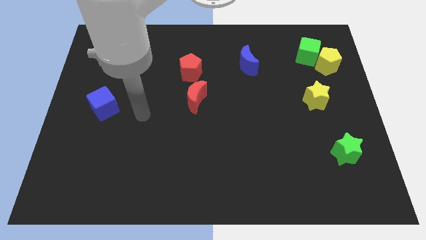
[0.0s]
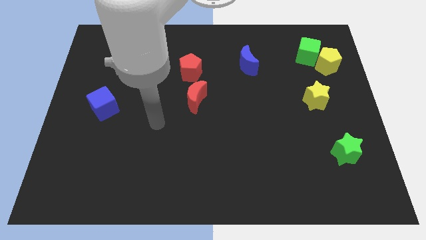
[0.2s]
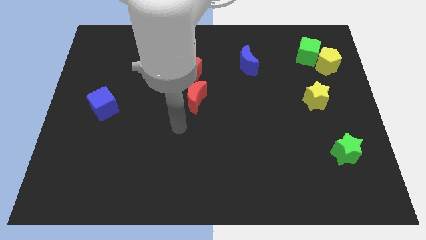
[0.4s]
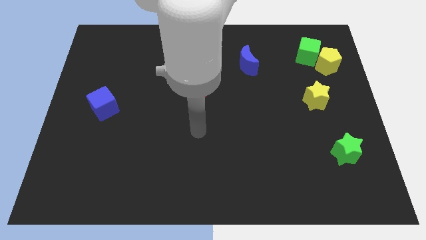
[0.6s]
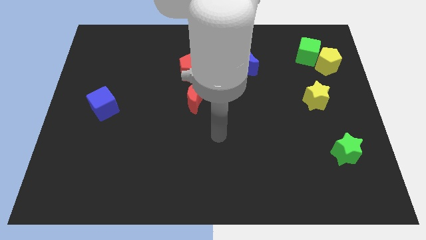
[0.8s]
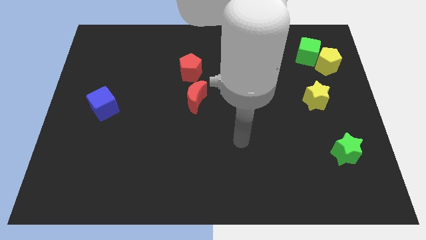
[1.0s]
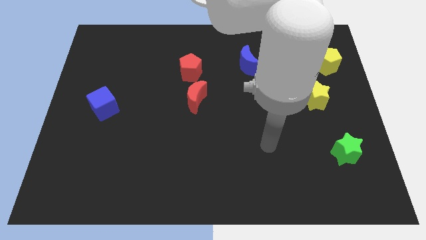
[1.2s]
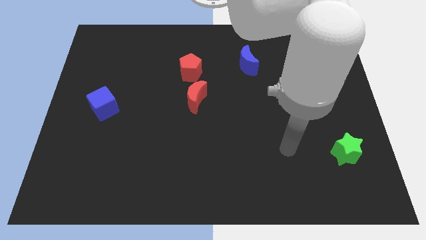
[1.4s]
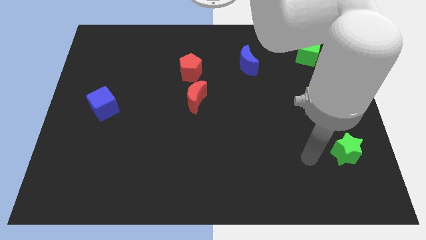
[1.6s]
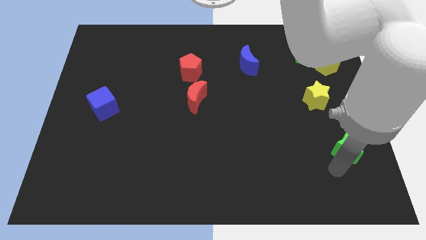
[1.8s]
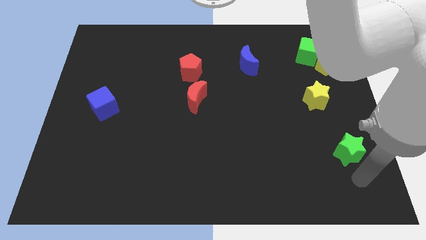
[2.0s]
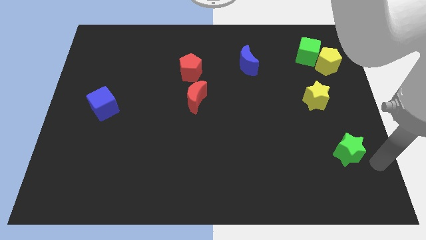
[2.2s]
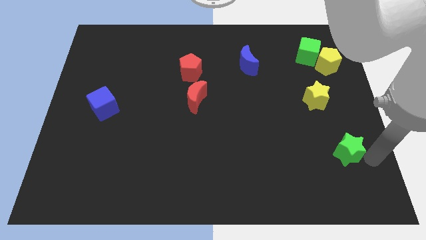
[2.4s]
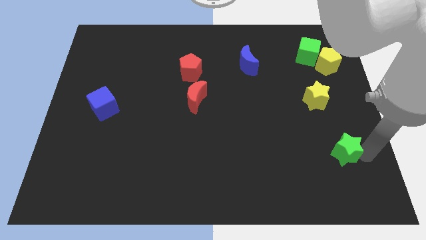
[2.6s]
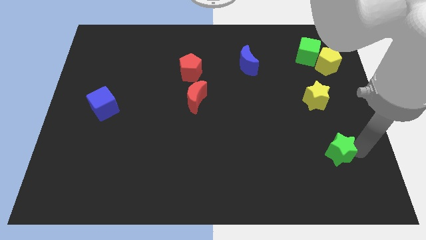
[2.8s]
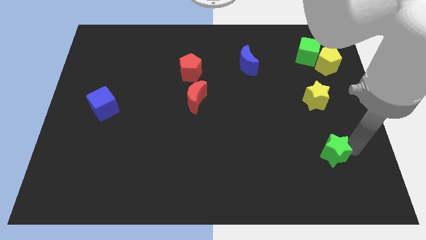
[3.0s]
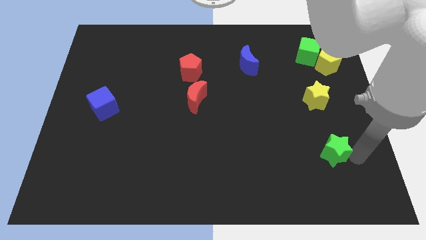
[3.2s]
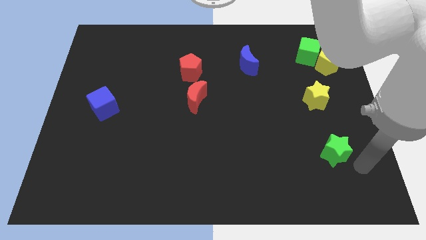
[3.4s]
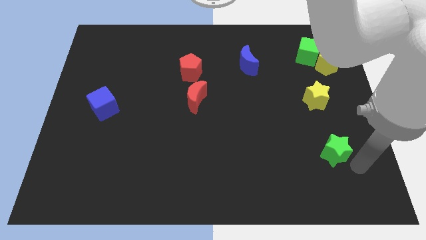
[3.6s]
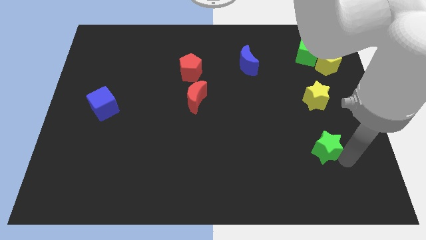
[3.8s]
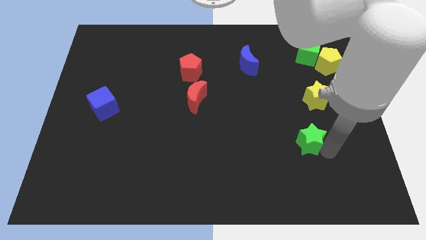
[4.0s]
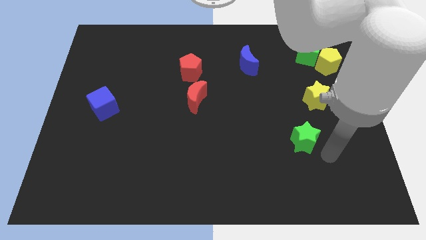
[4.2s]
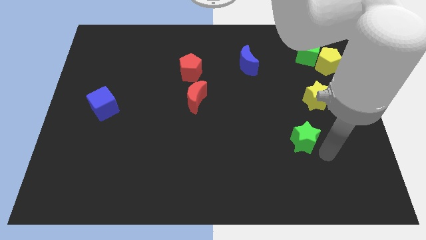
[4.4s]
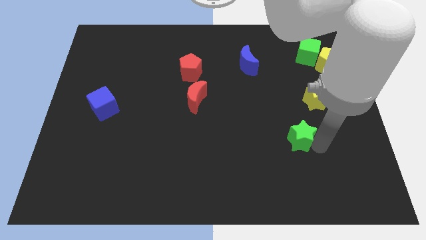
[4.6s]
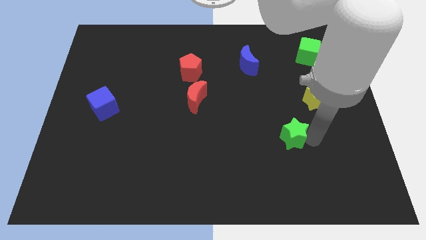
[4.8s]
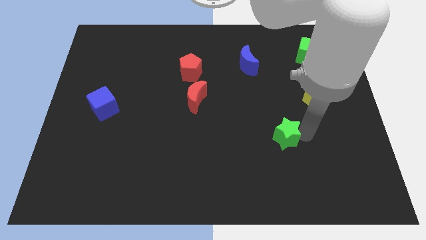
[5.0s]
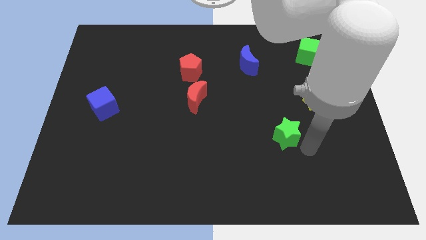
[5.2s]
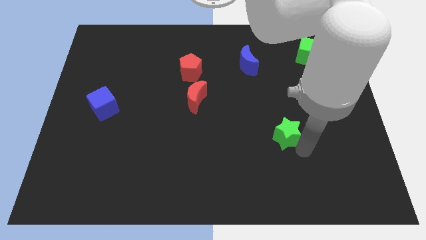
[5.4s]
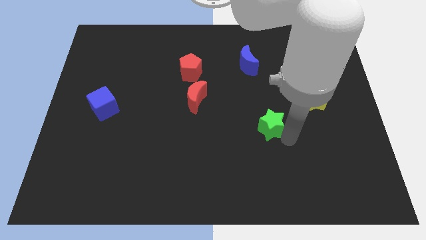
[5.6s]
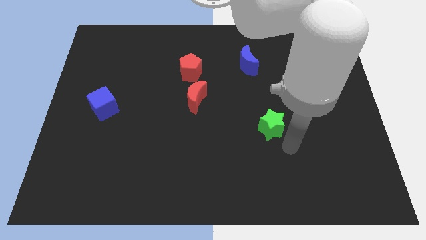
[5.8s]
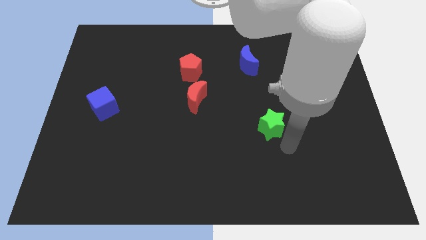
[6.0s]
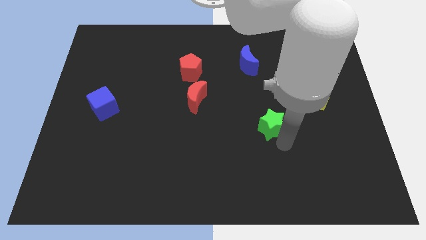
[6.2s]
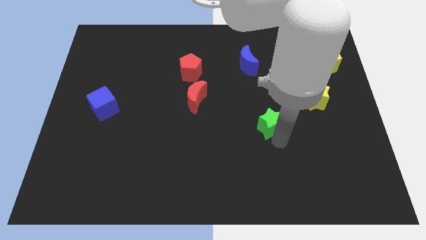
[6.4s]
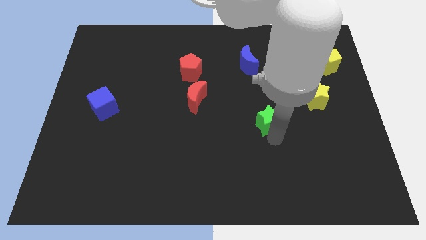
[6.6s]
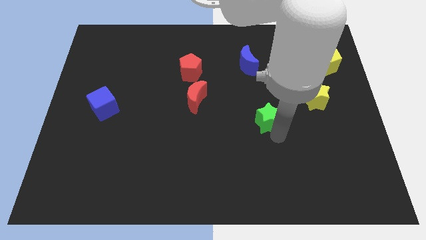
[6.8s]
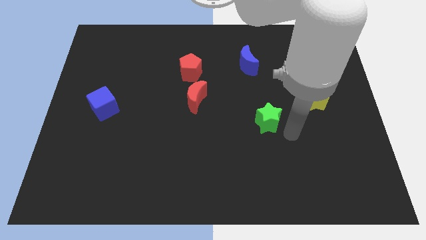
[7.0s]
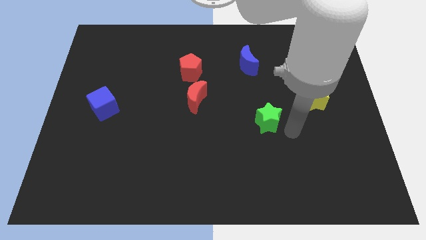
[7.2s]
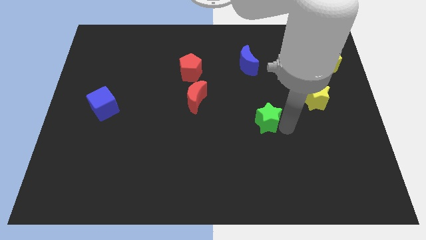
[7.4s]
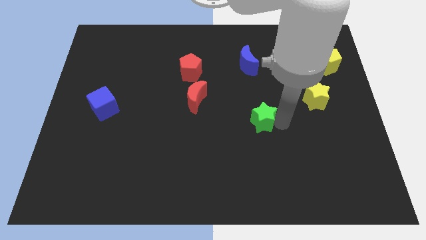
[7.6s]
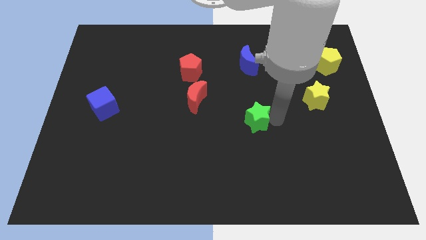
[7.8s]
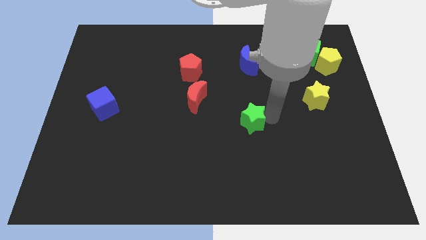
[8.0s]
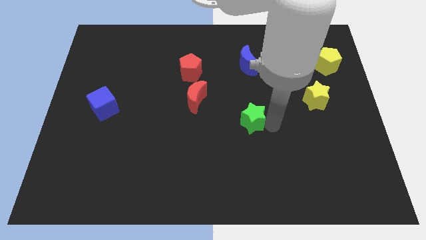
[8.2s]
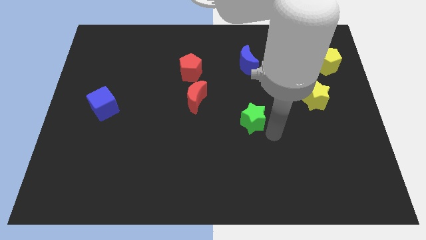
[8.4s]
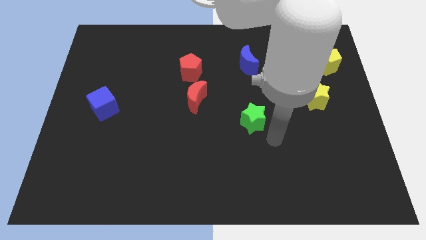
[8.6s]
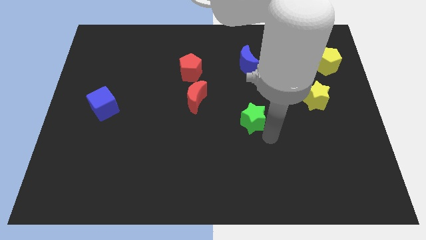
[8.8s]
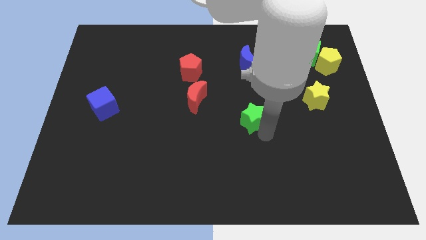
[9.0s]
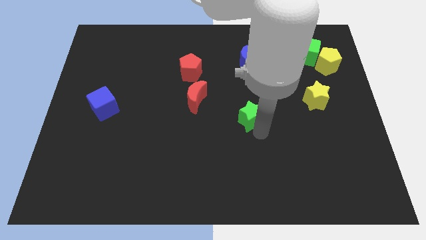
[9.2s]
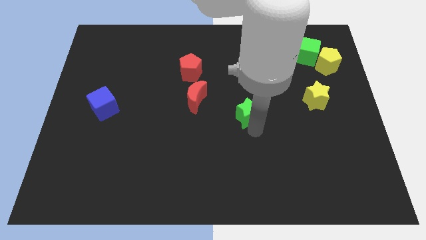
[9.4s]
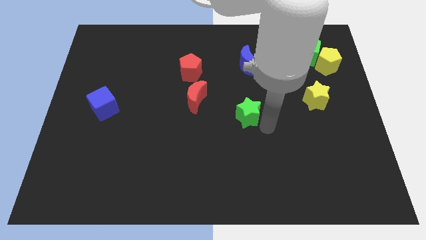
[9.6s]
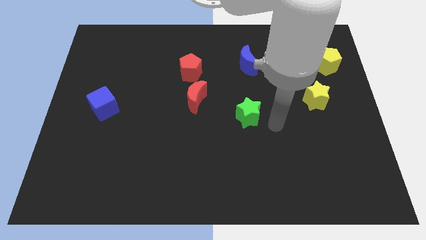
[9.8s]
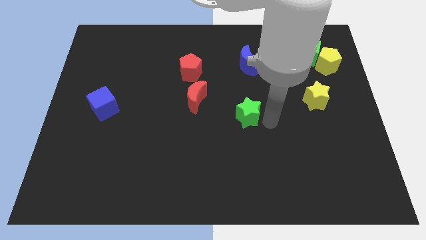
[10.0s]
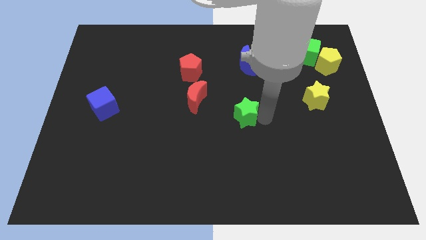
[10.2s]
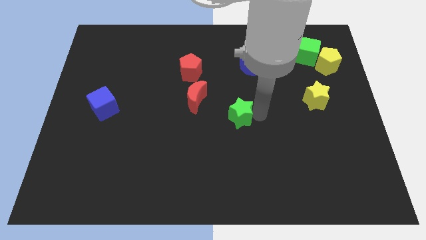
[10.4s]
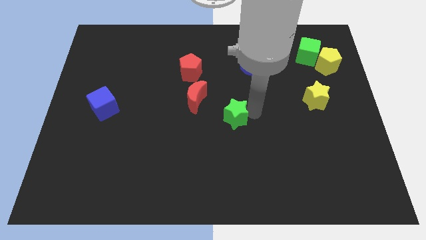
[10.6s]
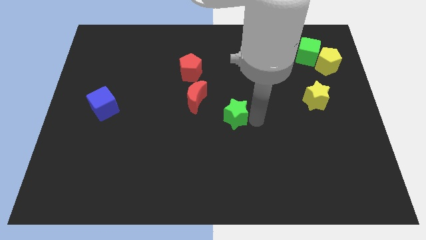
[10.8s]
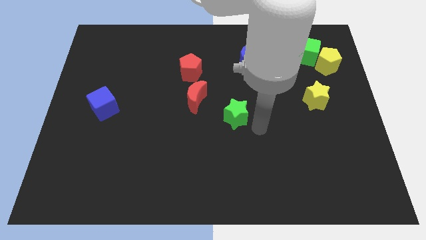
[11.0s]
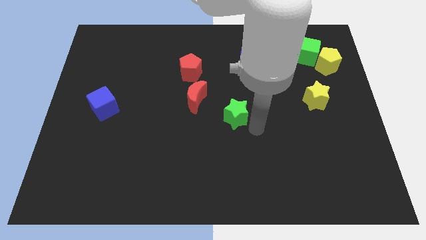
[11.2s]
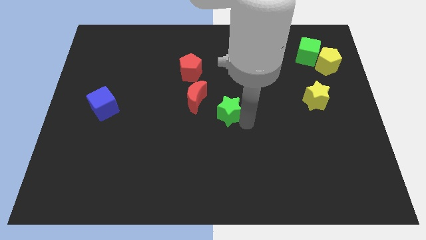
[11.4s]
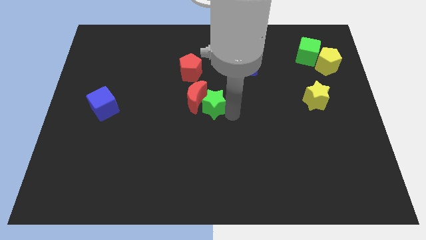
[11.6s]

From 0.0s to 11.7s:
push the green star next to the red moon

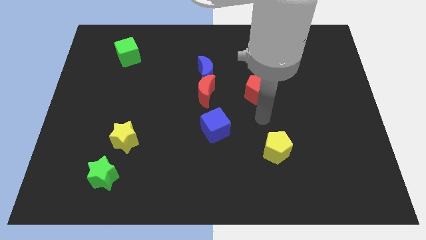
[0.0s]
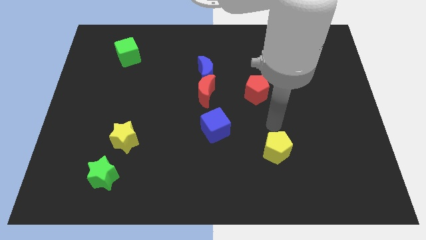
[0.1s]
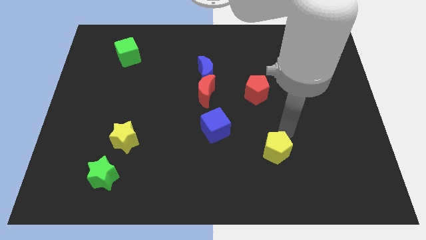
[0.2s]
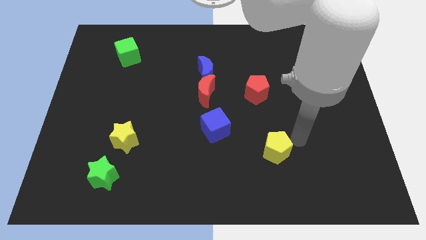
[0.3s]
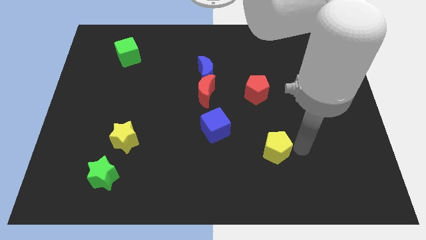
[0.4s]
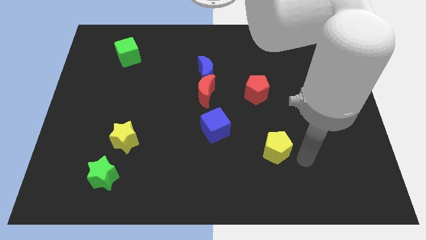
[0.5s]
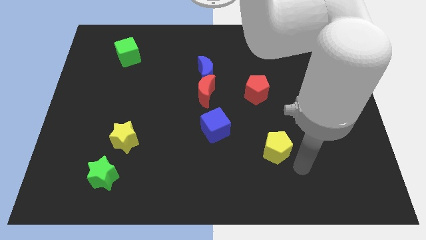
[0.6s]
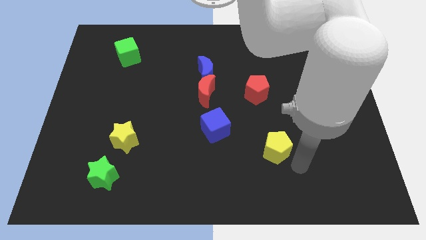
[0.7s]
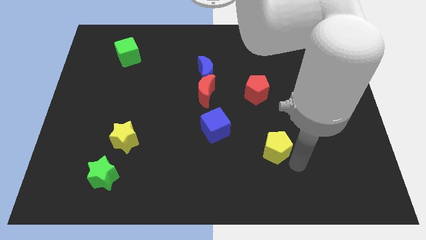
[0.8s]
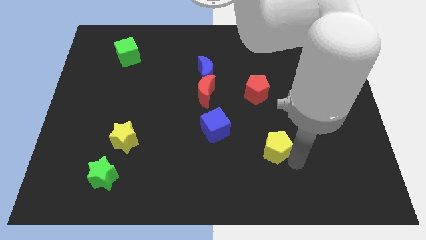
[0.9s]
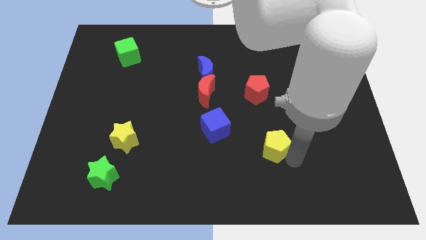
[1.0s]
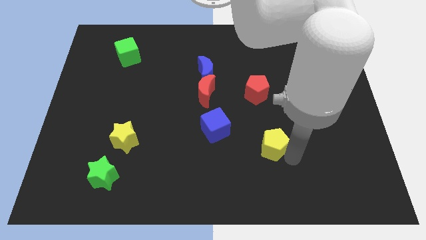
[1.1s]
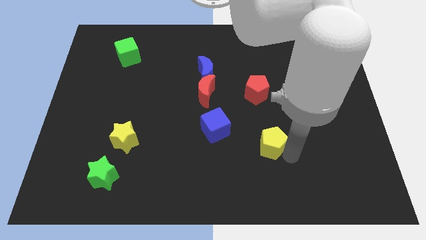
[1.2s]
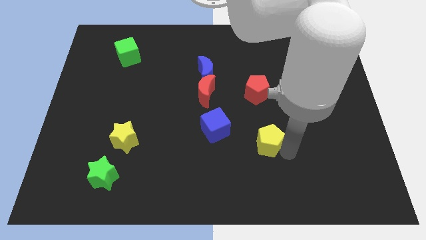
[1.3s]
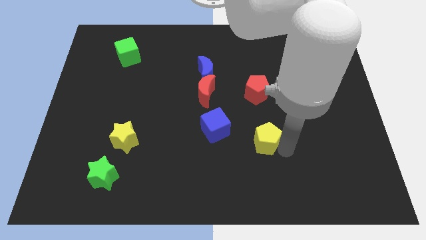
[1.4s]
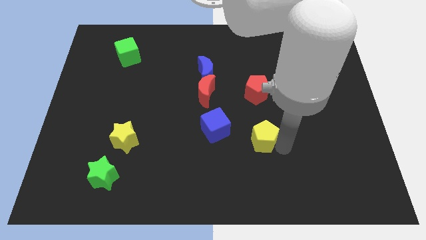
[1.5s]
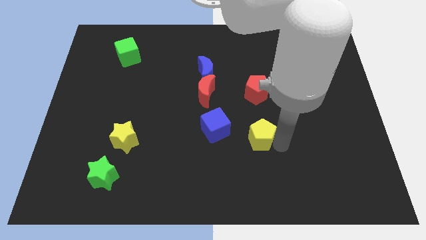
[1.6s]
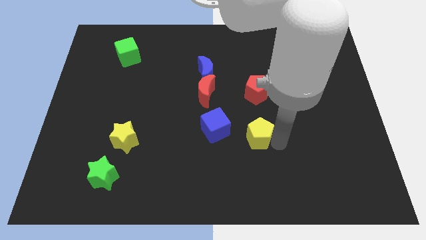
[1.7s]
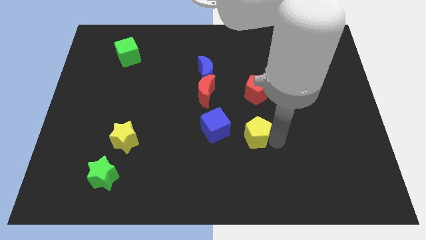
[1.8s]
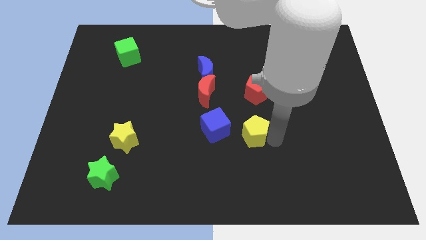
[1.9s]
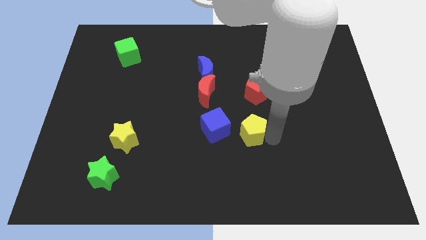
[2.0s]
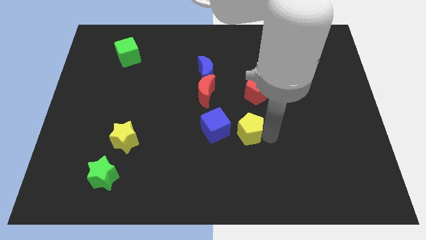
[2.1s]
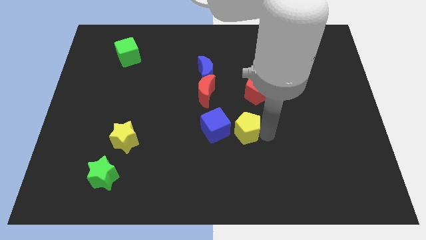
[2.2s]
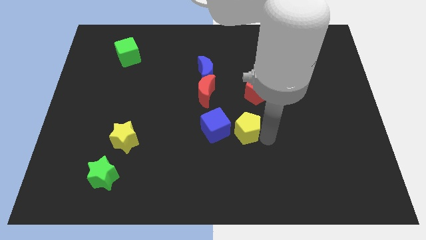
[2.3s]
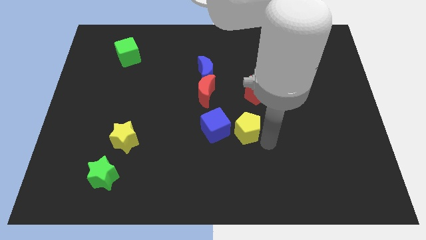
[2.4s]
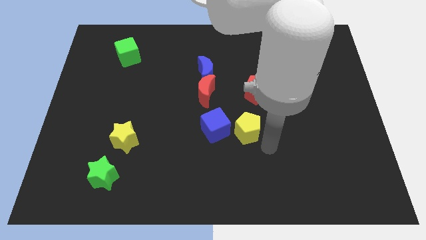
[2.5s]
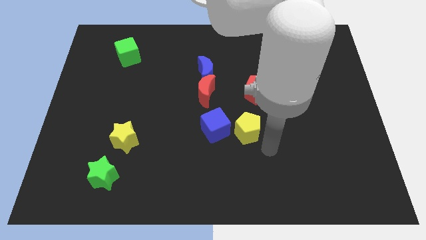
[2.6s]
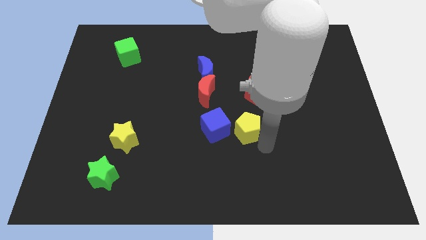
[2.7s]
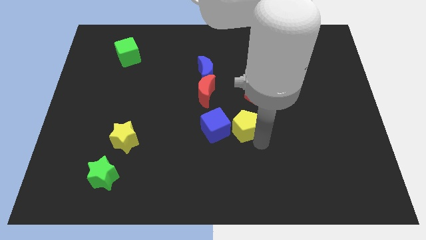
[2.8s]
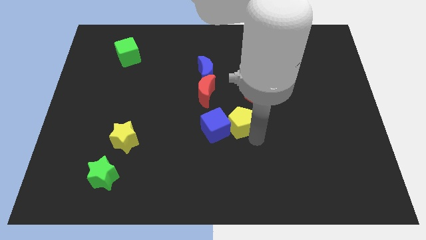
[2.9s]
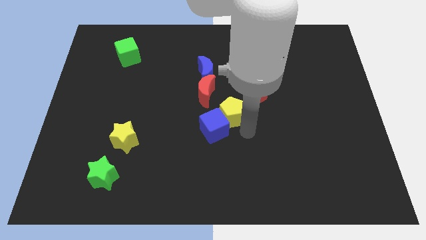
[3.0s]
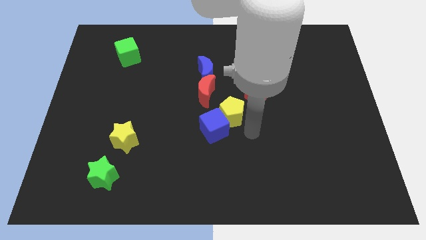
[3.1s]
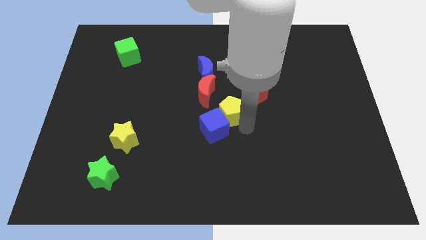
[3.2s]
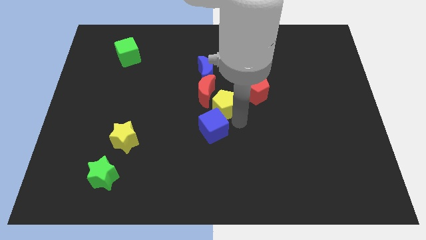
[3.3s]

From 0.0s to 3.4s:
slide the yellow pentagon to the red moon
